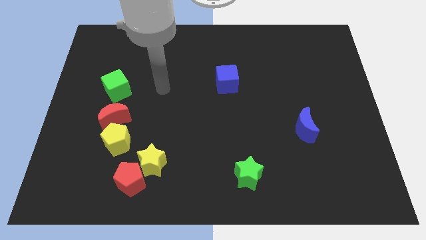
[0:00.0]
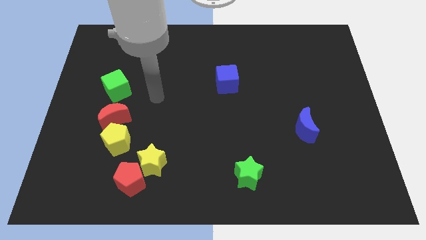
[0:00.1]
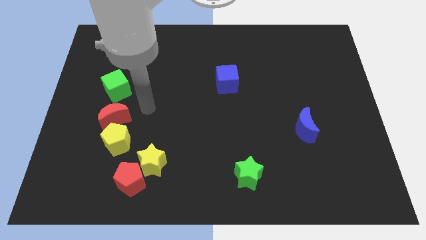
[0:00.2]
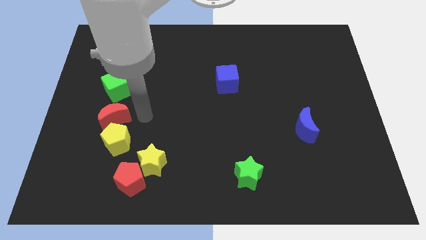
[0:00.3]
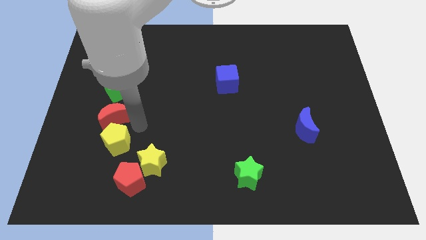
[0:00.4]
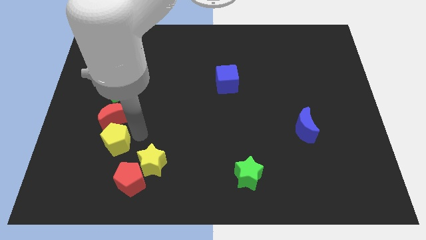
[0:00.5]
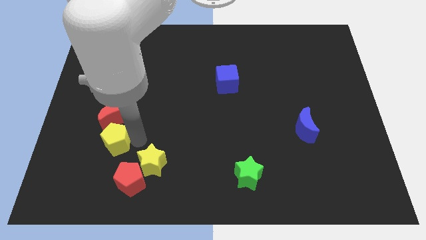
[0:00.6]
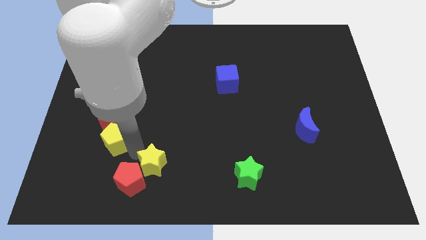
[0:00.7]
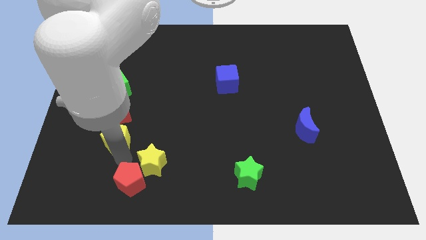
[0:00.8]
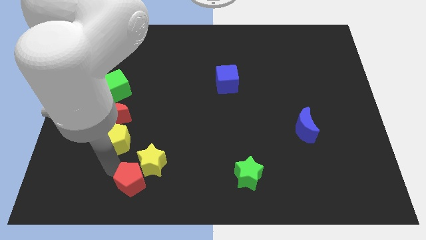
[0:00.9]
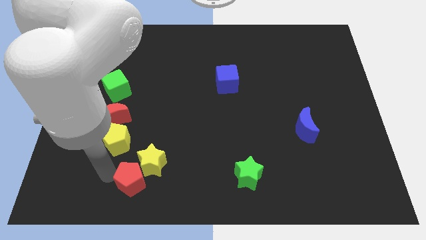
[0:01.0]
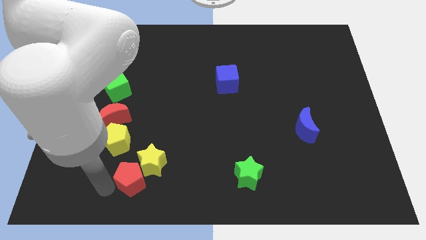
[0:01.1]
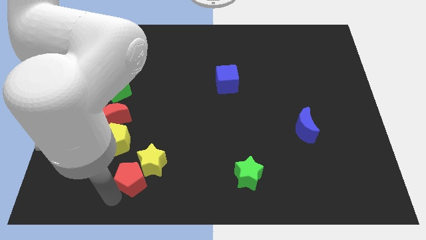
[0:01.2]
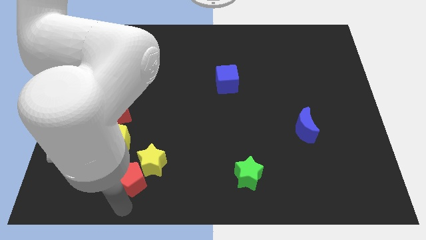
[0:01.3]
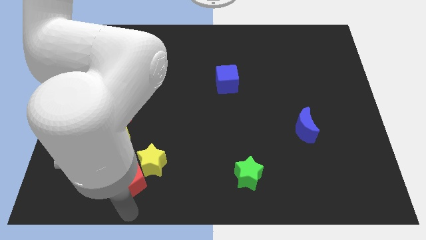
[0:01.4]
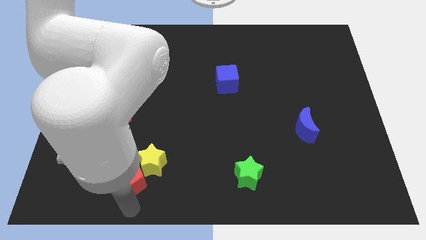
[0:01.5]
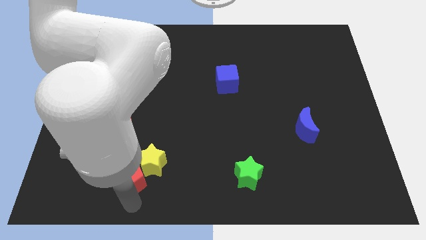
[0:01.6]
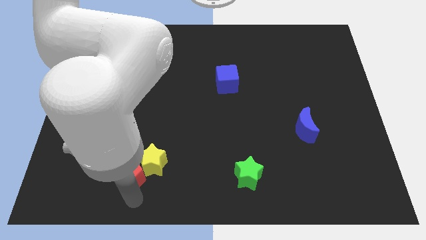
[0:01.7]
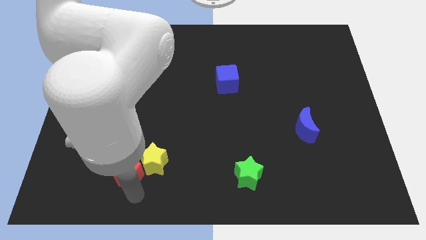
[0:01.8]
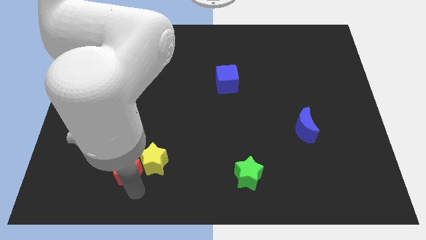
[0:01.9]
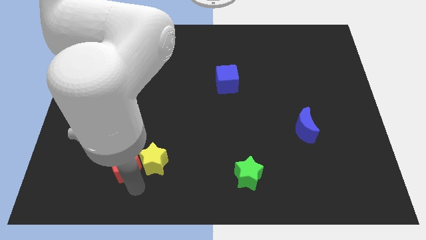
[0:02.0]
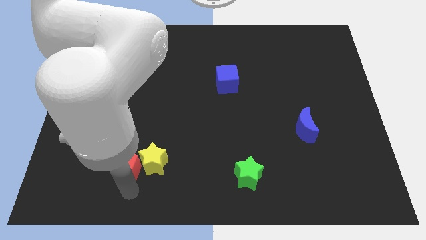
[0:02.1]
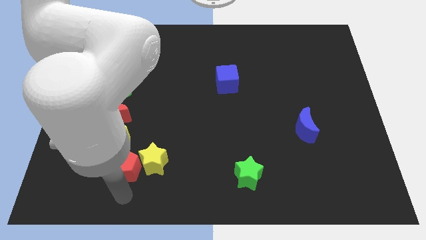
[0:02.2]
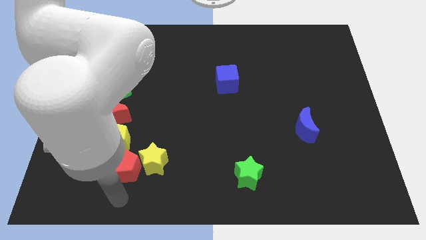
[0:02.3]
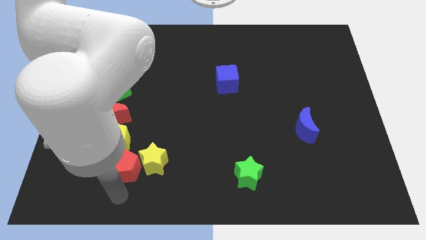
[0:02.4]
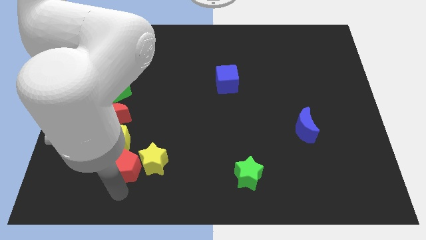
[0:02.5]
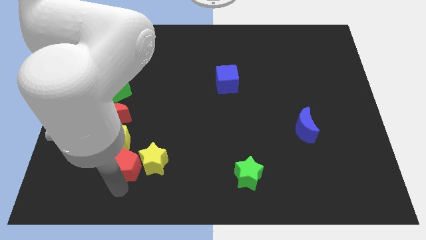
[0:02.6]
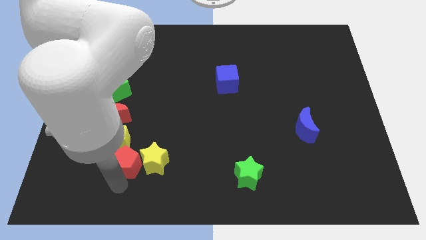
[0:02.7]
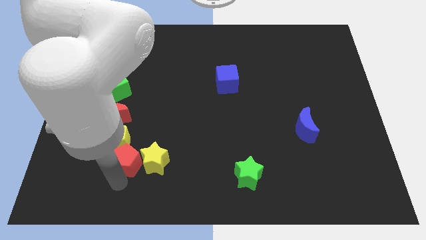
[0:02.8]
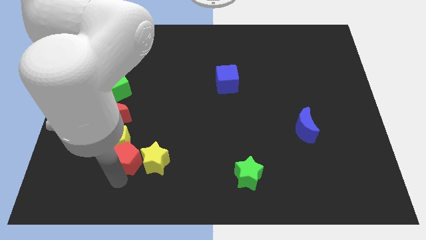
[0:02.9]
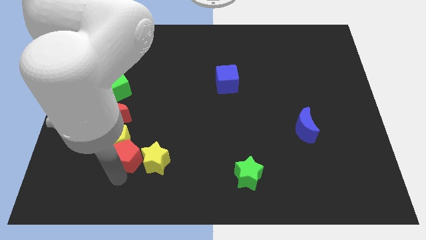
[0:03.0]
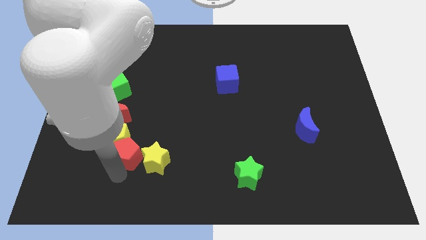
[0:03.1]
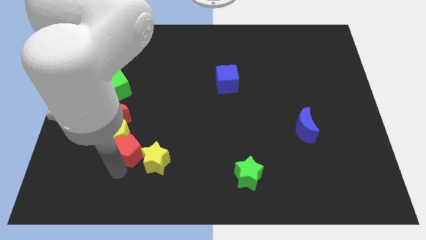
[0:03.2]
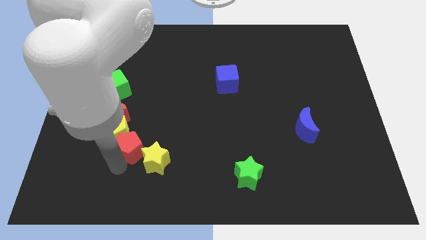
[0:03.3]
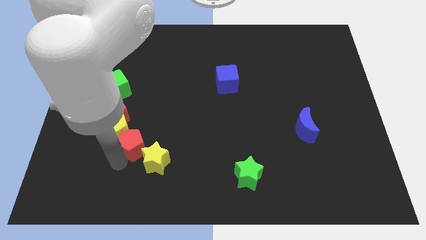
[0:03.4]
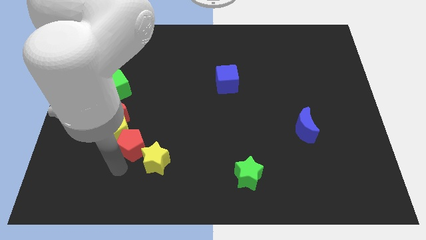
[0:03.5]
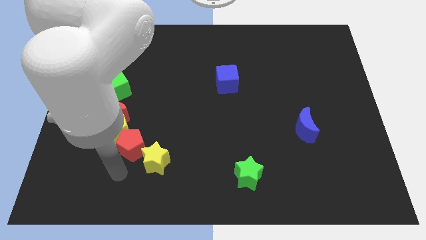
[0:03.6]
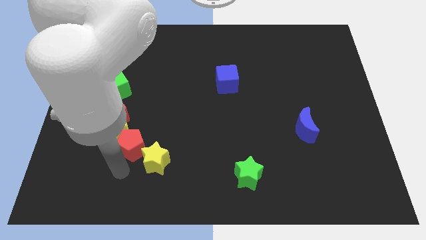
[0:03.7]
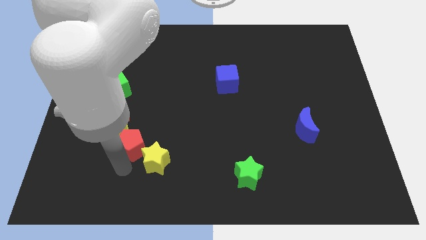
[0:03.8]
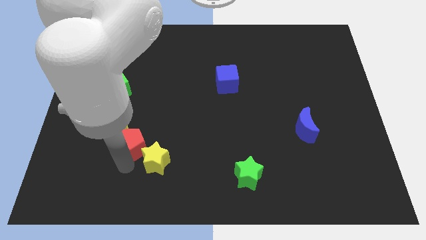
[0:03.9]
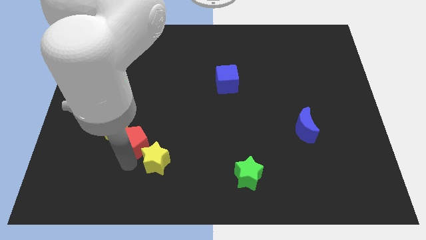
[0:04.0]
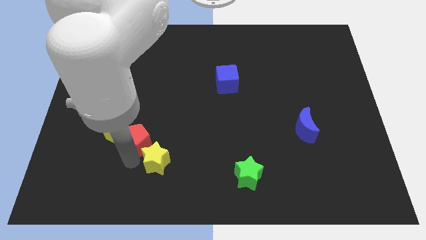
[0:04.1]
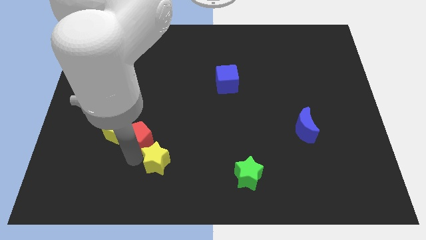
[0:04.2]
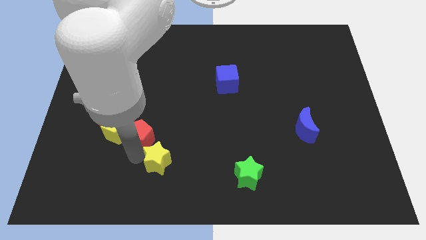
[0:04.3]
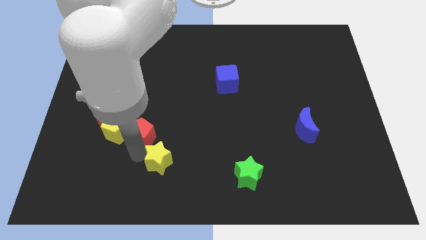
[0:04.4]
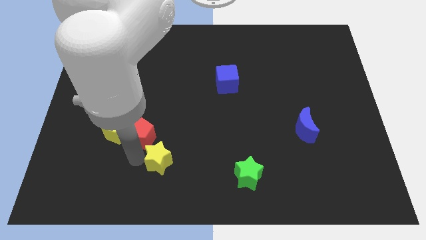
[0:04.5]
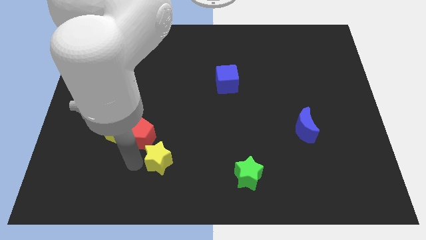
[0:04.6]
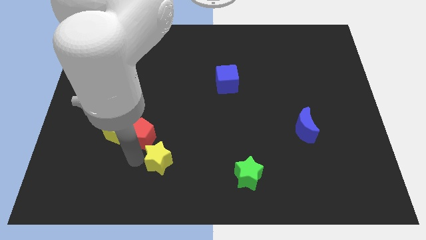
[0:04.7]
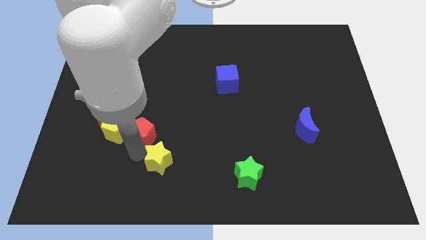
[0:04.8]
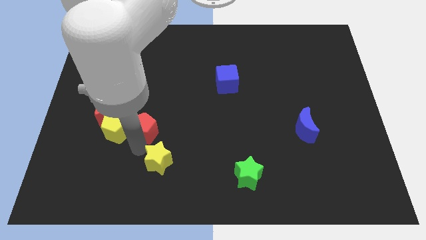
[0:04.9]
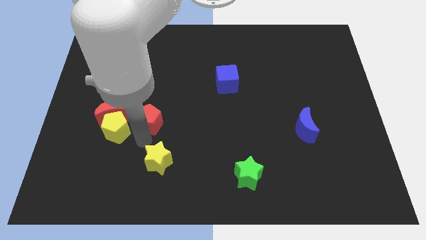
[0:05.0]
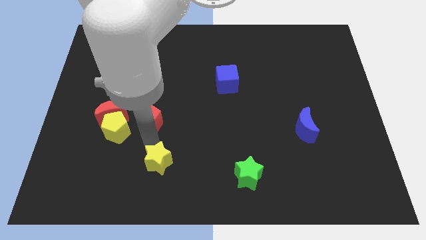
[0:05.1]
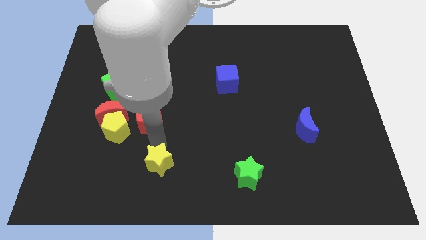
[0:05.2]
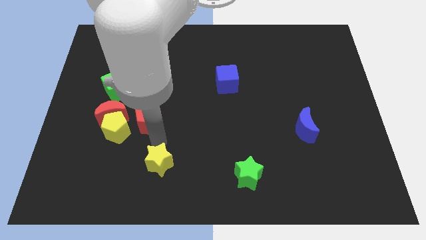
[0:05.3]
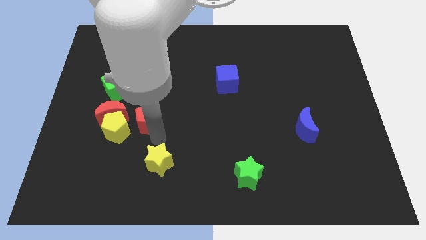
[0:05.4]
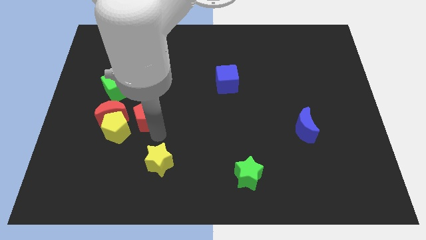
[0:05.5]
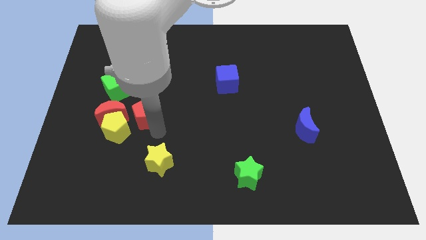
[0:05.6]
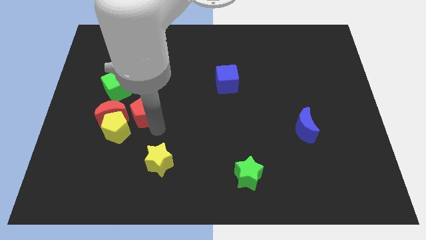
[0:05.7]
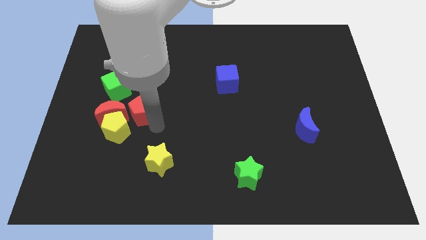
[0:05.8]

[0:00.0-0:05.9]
put the red pentagon diagonally up and to the right of the red moon

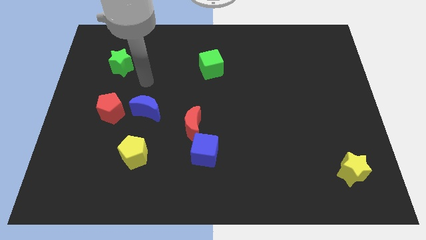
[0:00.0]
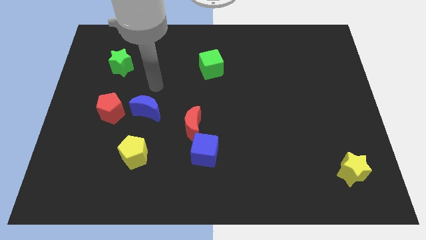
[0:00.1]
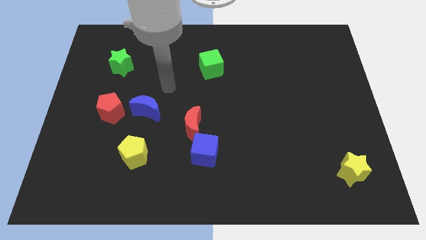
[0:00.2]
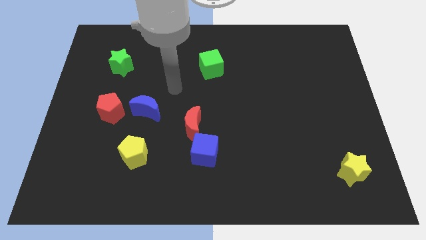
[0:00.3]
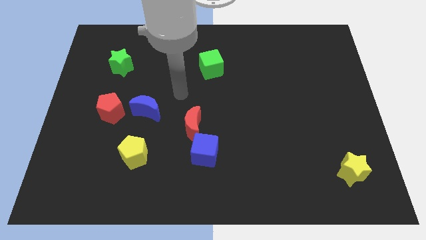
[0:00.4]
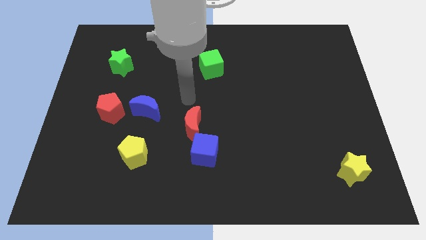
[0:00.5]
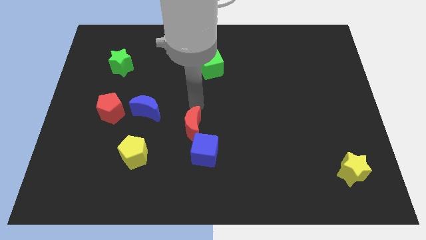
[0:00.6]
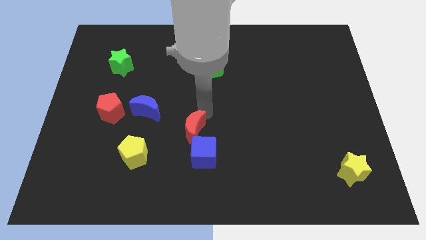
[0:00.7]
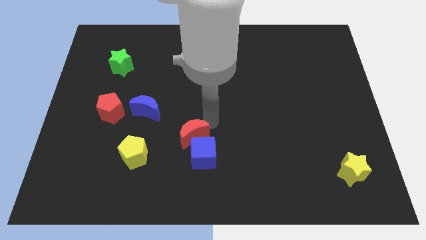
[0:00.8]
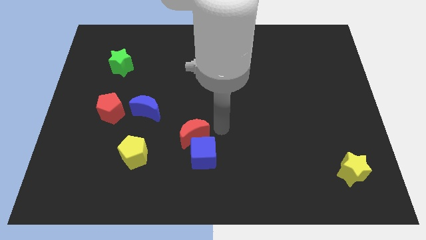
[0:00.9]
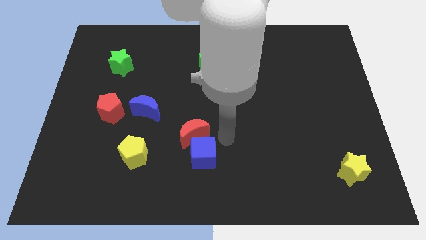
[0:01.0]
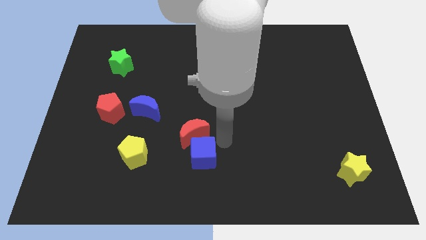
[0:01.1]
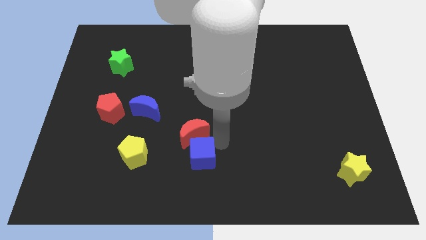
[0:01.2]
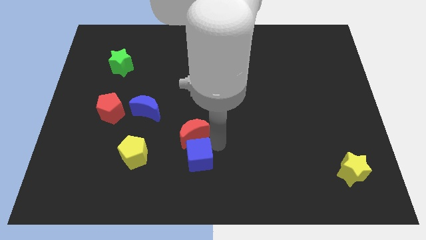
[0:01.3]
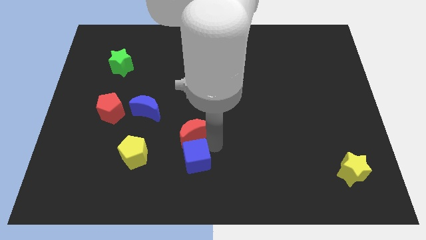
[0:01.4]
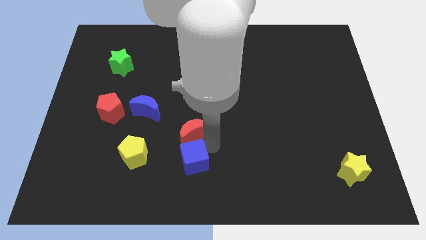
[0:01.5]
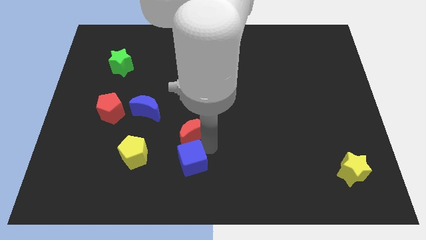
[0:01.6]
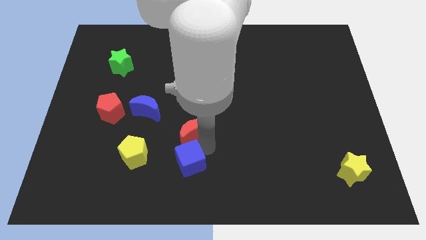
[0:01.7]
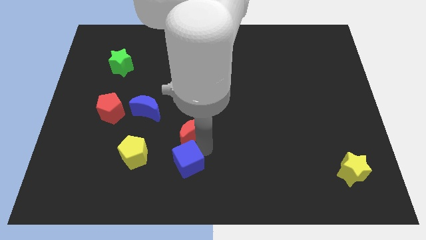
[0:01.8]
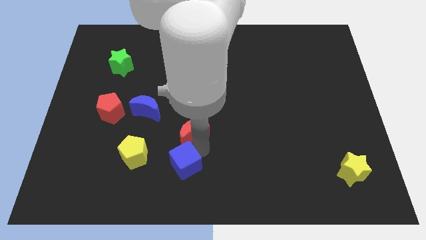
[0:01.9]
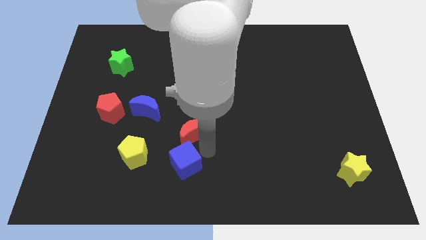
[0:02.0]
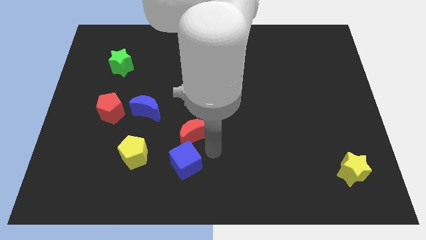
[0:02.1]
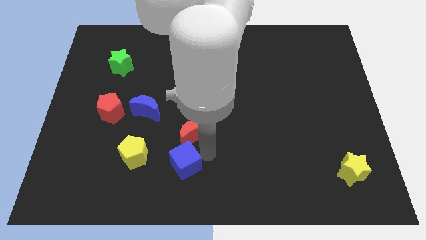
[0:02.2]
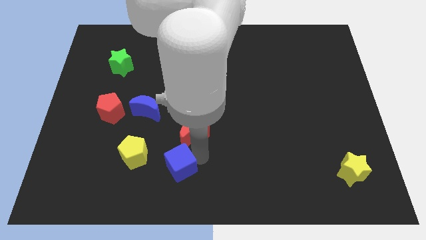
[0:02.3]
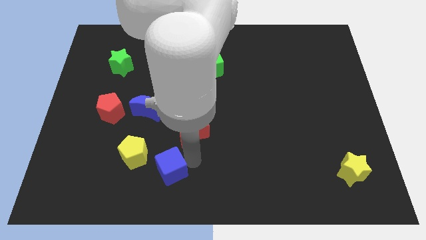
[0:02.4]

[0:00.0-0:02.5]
move the blue cube to the bottom right side of the yellow pentagon
